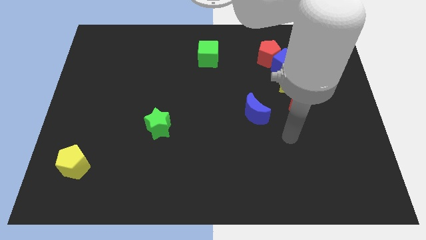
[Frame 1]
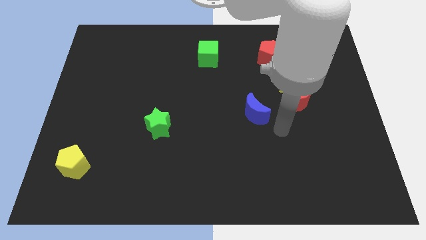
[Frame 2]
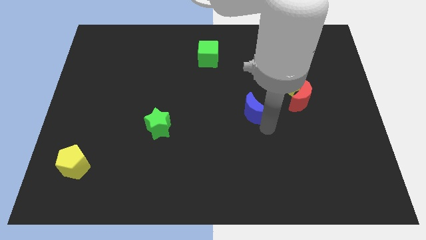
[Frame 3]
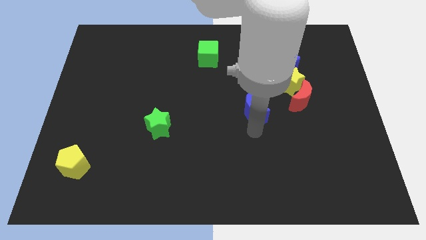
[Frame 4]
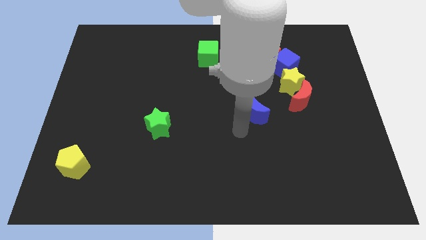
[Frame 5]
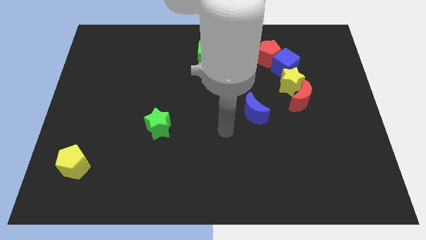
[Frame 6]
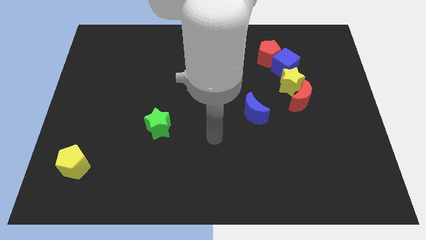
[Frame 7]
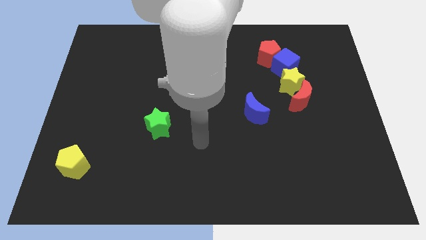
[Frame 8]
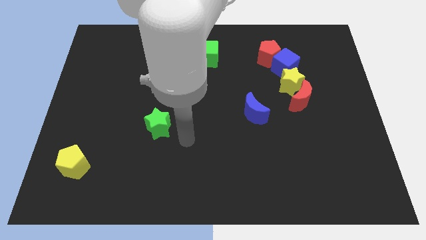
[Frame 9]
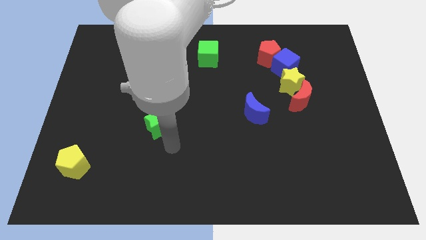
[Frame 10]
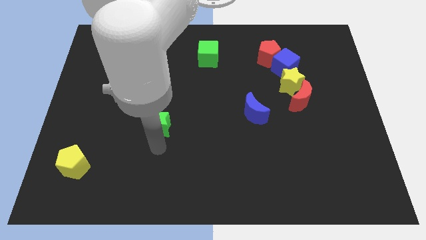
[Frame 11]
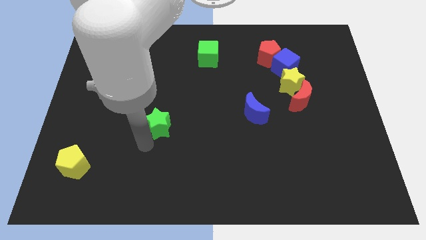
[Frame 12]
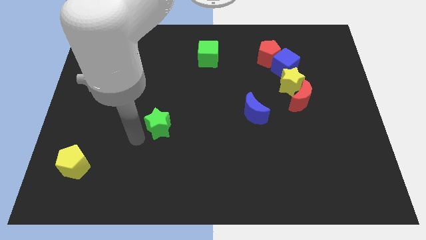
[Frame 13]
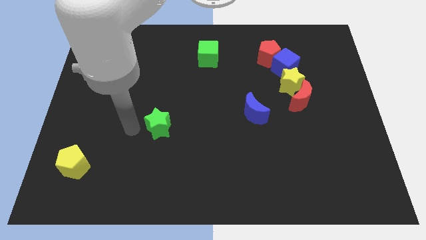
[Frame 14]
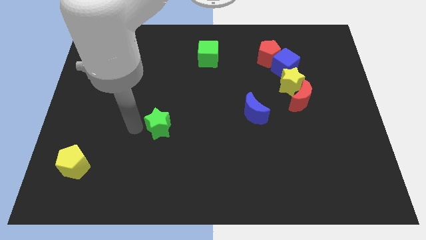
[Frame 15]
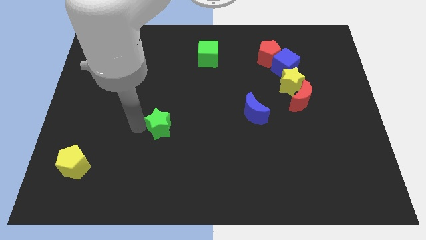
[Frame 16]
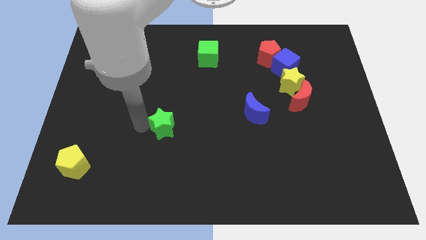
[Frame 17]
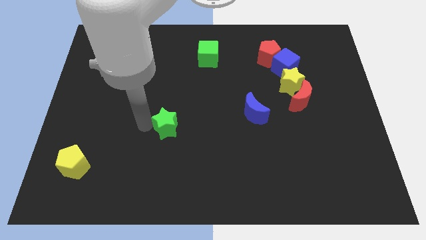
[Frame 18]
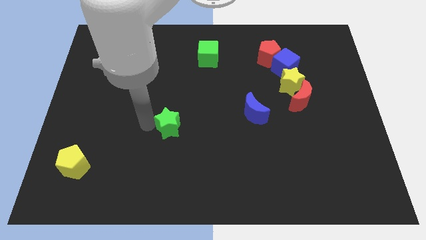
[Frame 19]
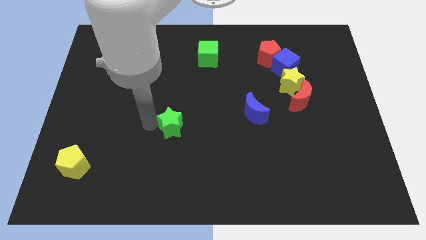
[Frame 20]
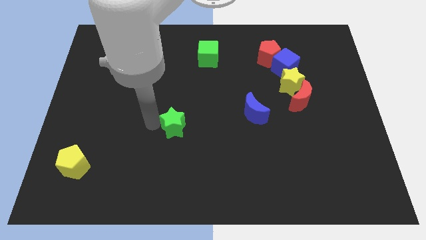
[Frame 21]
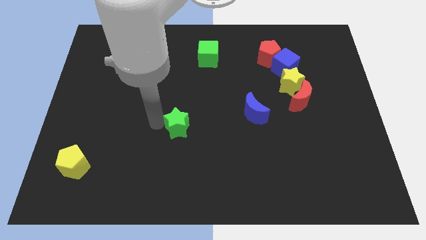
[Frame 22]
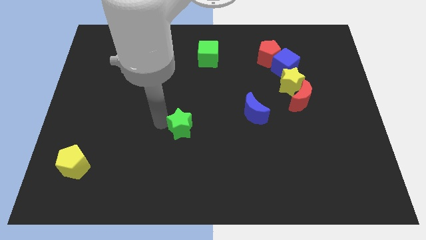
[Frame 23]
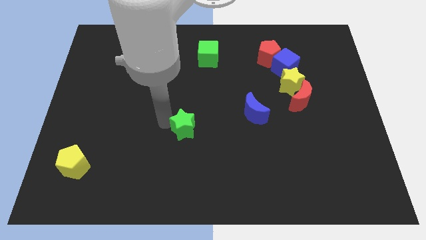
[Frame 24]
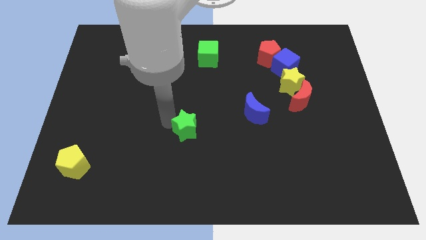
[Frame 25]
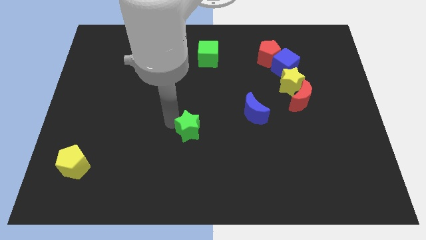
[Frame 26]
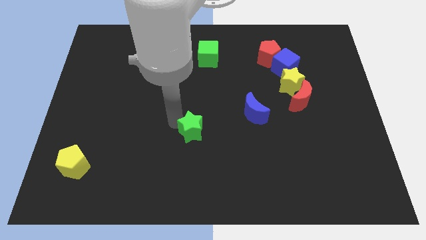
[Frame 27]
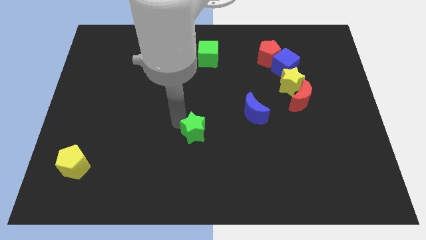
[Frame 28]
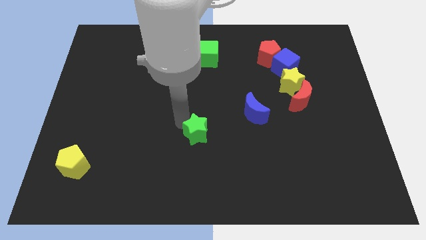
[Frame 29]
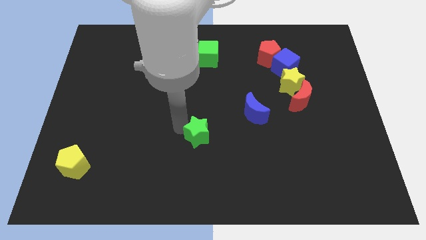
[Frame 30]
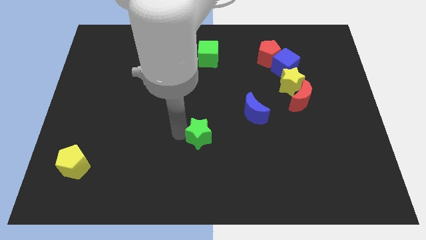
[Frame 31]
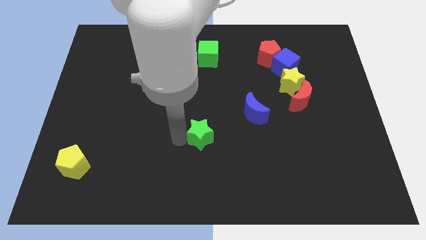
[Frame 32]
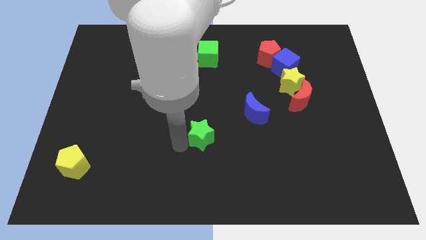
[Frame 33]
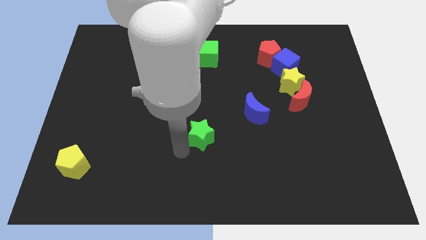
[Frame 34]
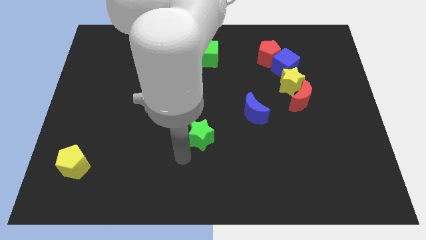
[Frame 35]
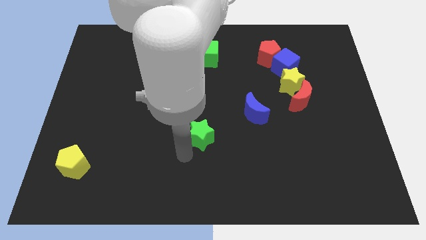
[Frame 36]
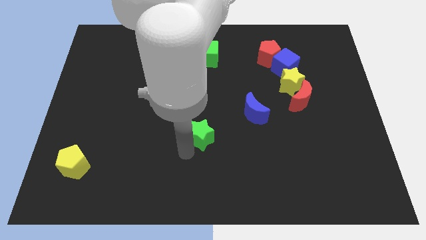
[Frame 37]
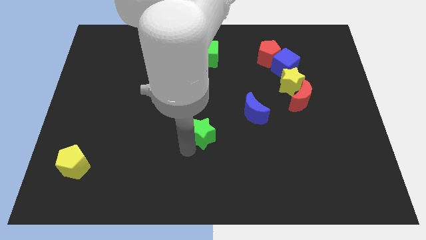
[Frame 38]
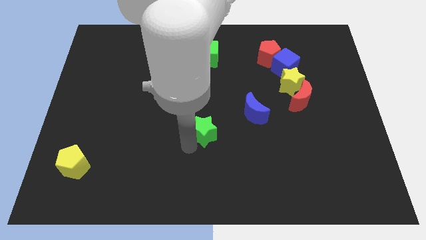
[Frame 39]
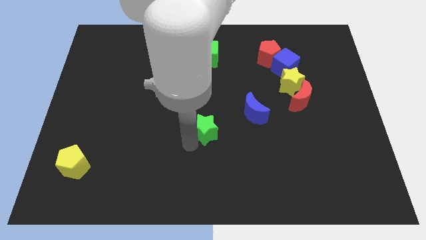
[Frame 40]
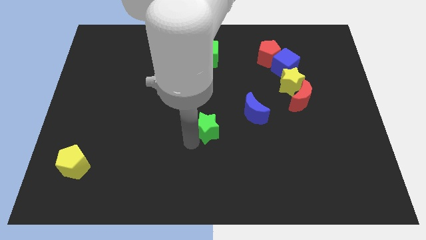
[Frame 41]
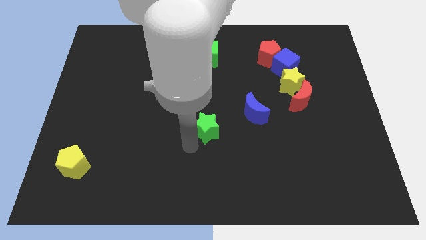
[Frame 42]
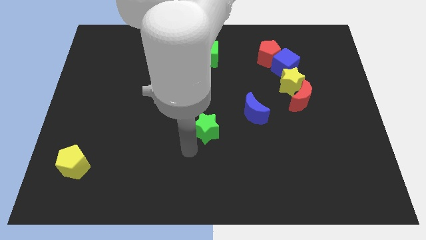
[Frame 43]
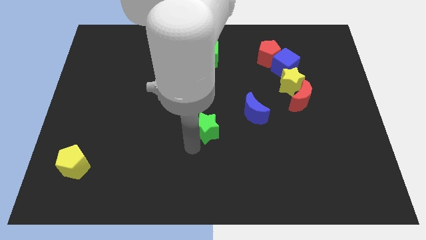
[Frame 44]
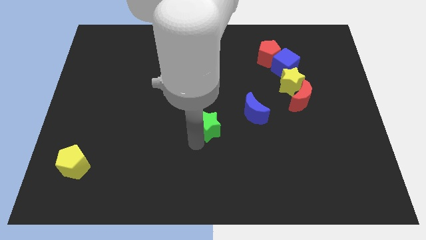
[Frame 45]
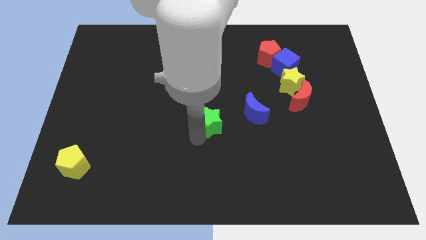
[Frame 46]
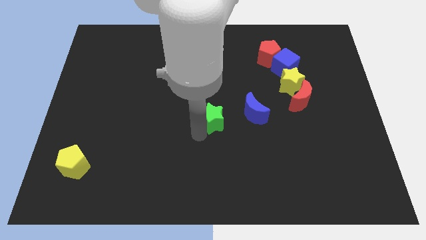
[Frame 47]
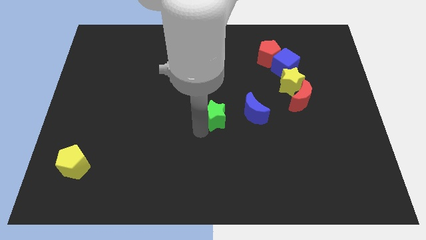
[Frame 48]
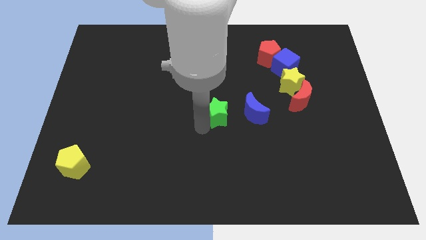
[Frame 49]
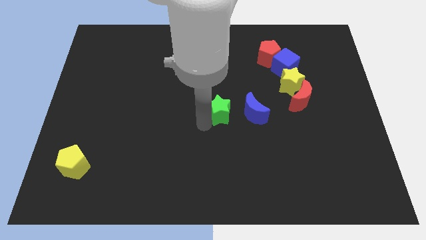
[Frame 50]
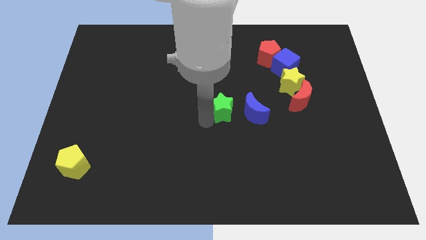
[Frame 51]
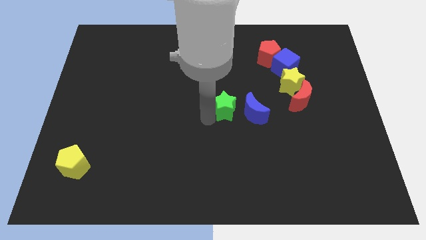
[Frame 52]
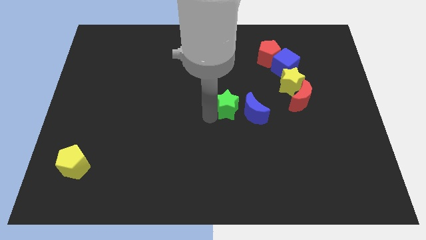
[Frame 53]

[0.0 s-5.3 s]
put the green star next to the blue moon

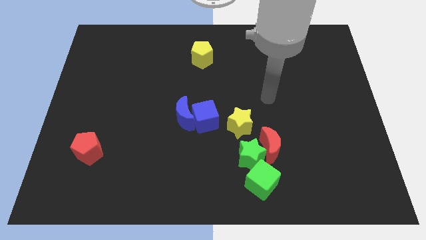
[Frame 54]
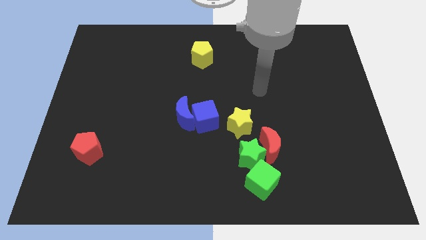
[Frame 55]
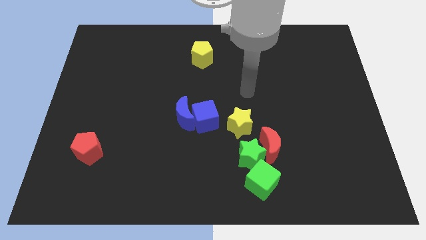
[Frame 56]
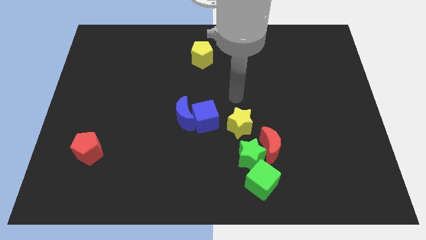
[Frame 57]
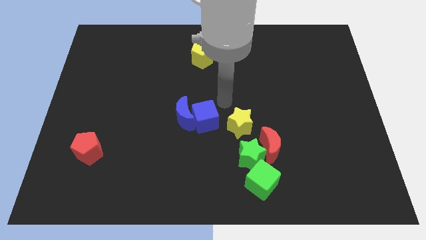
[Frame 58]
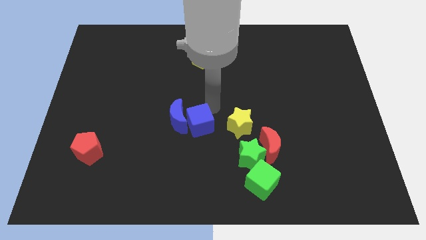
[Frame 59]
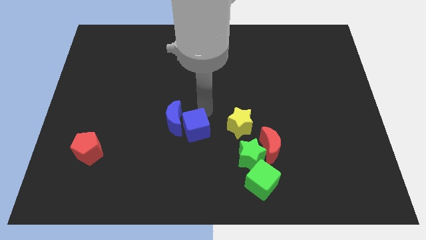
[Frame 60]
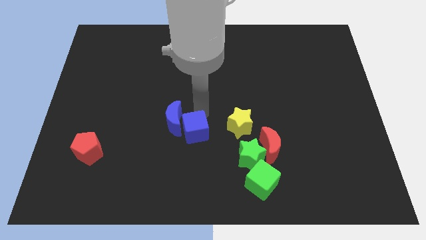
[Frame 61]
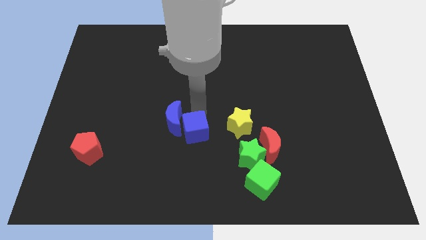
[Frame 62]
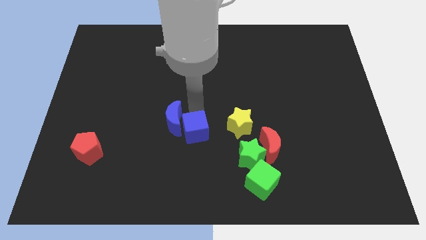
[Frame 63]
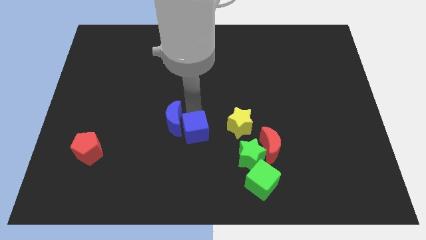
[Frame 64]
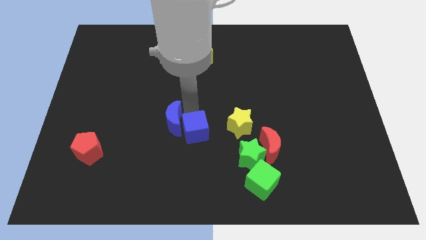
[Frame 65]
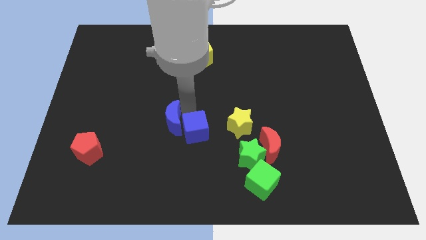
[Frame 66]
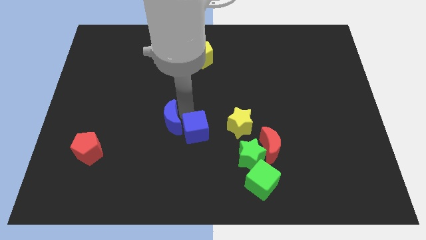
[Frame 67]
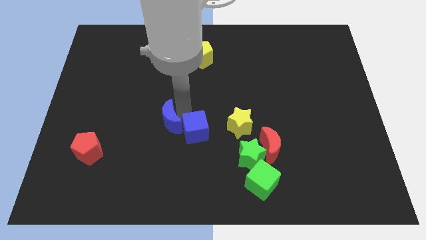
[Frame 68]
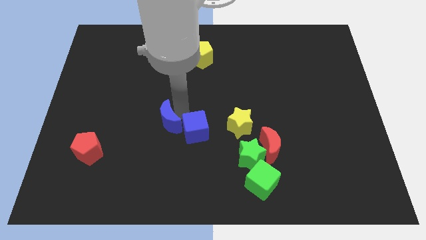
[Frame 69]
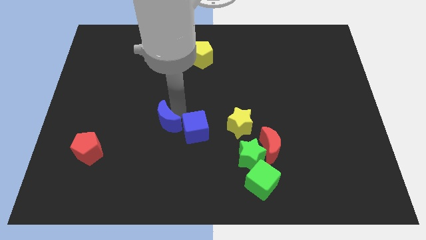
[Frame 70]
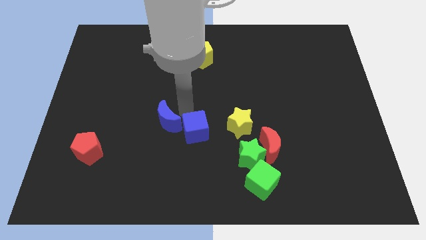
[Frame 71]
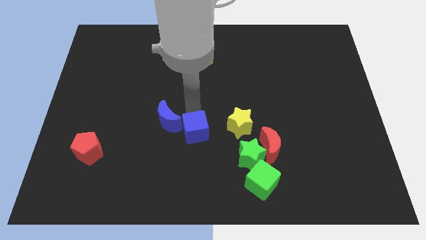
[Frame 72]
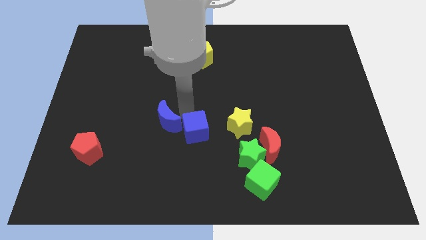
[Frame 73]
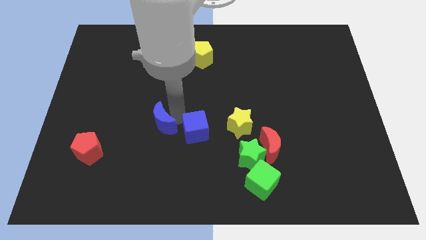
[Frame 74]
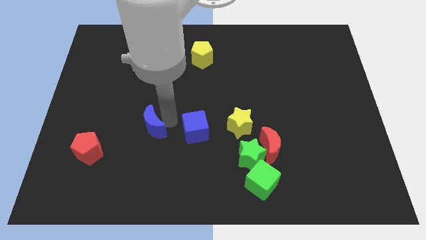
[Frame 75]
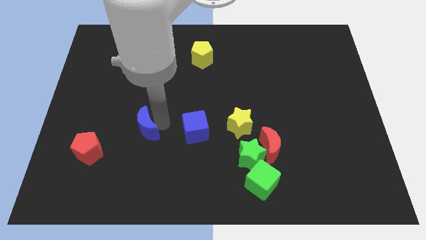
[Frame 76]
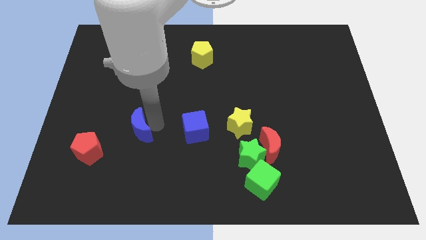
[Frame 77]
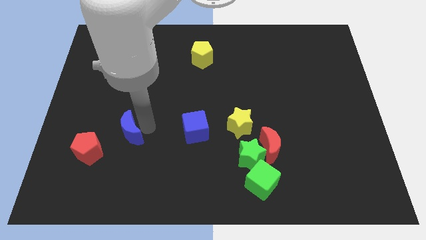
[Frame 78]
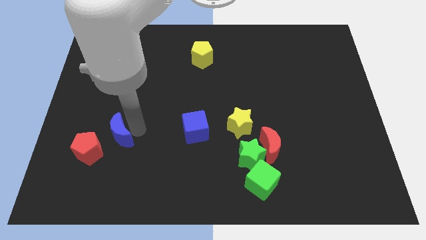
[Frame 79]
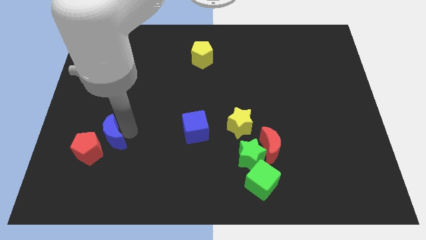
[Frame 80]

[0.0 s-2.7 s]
slide the blue moon to the red pentagon
